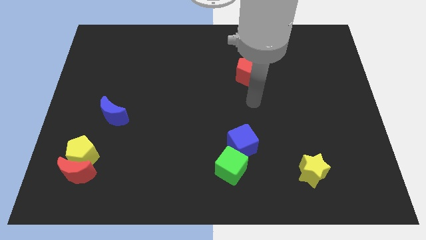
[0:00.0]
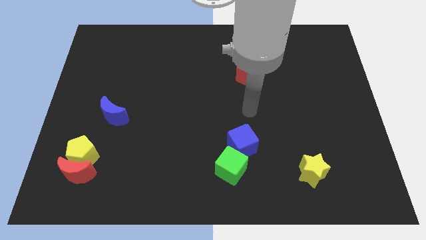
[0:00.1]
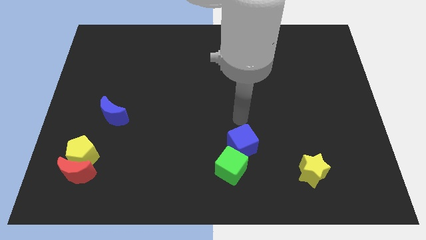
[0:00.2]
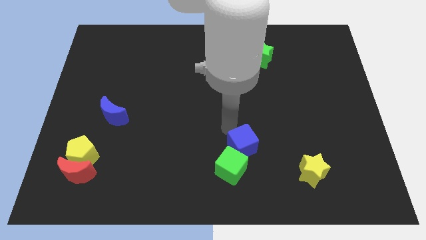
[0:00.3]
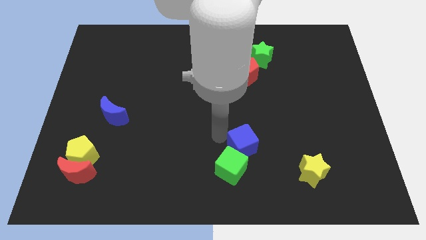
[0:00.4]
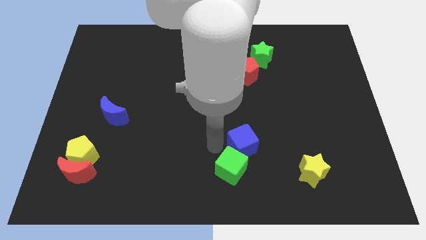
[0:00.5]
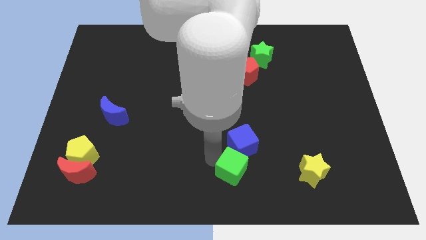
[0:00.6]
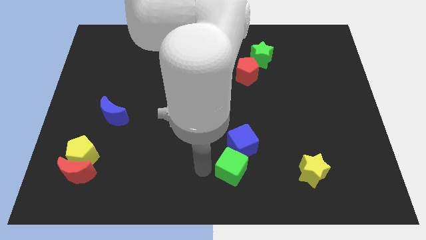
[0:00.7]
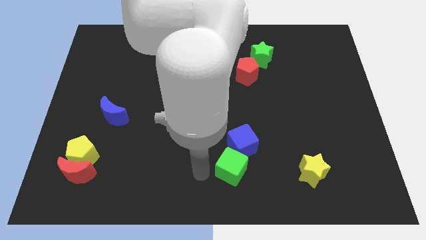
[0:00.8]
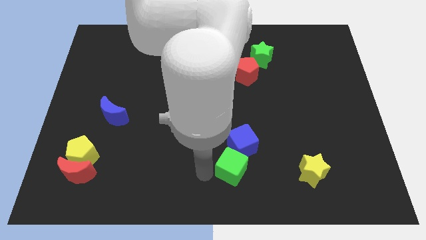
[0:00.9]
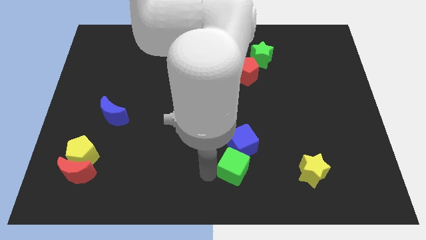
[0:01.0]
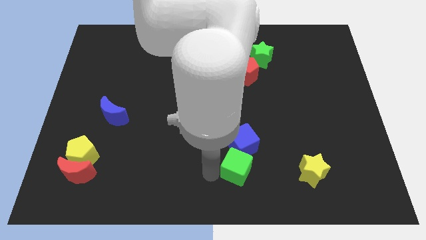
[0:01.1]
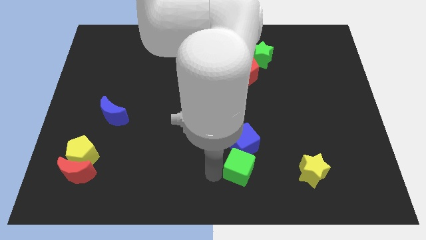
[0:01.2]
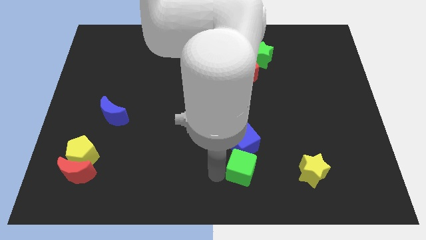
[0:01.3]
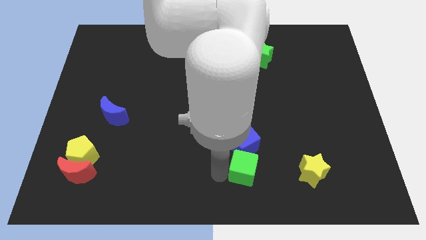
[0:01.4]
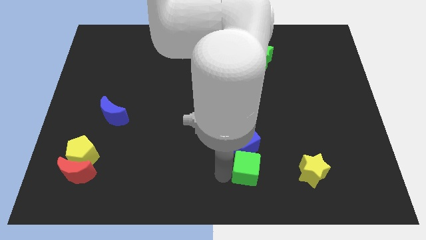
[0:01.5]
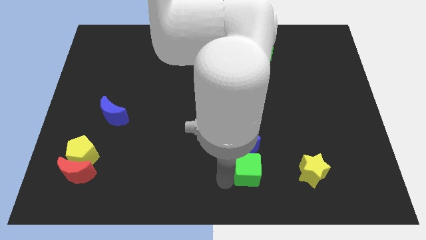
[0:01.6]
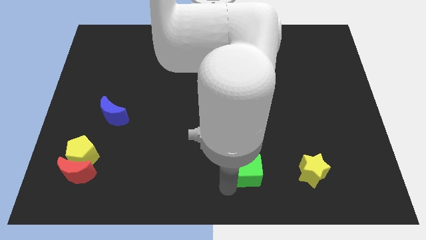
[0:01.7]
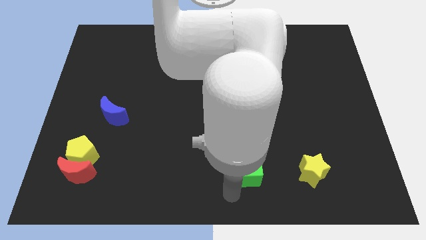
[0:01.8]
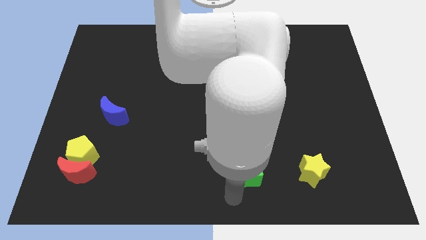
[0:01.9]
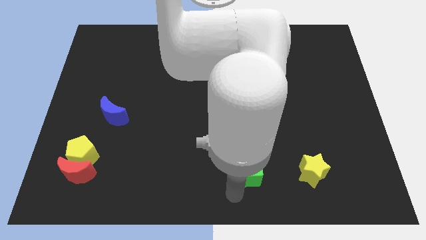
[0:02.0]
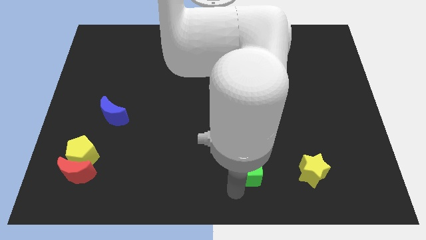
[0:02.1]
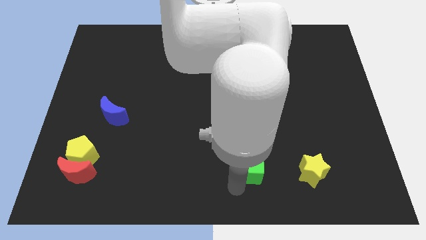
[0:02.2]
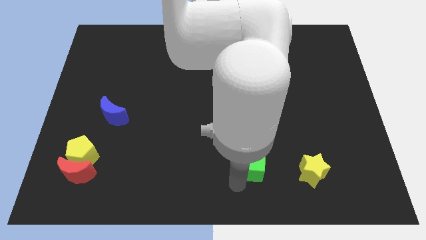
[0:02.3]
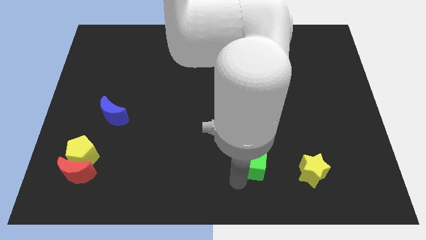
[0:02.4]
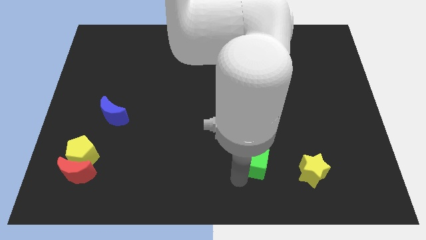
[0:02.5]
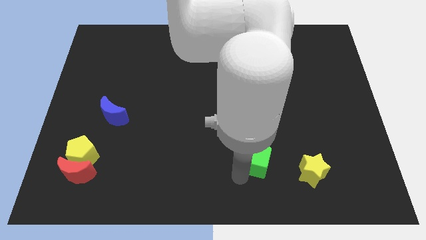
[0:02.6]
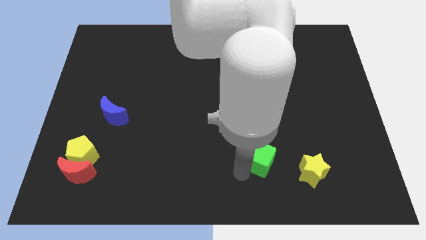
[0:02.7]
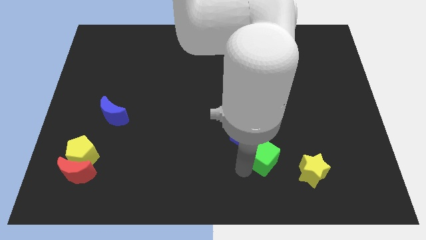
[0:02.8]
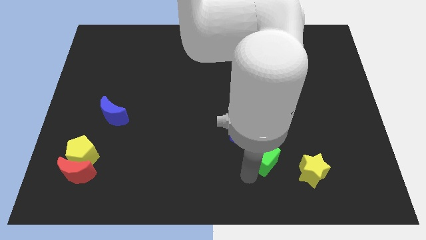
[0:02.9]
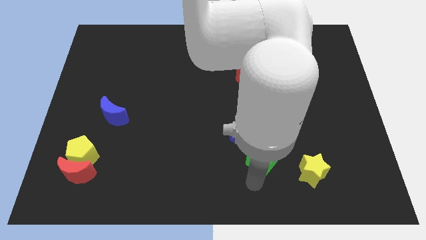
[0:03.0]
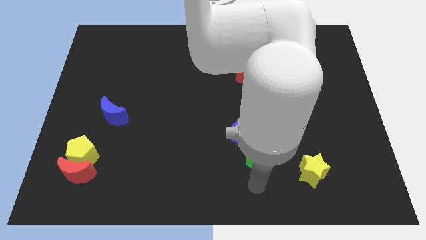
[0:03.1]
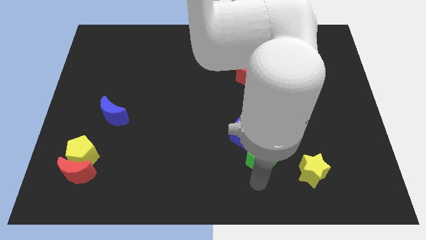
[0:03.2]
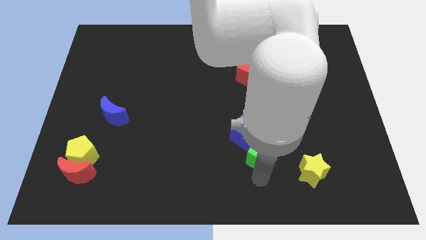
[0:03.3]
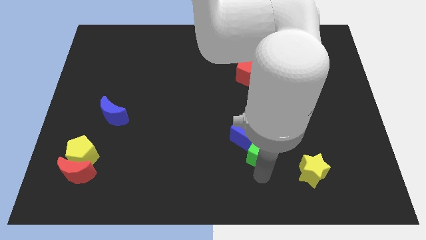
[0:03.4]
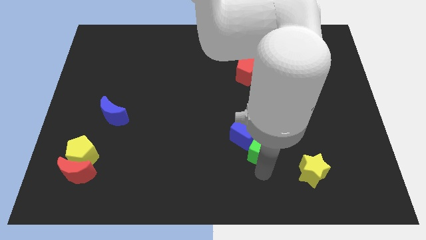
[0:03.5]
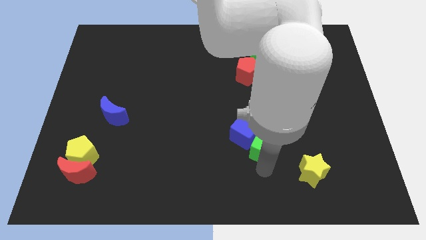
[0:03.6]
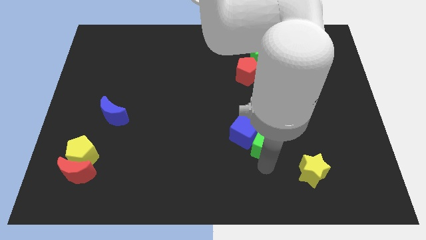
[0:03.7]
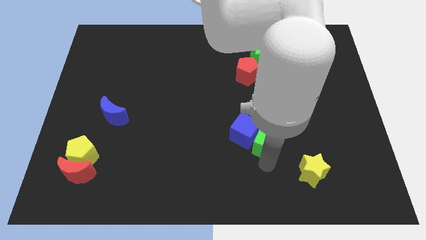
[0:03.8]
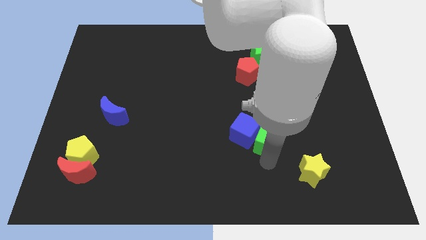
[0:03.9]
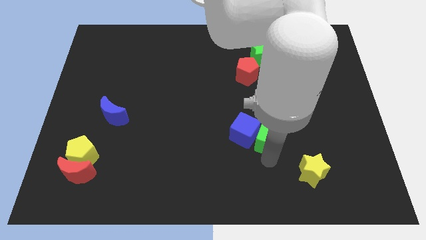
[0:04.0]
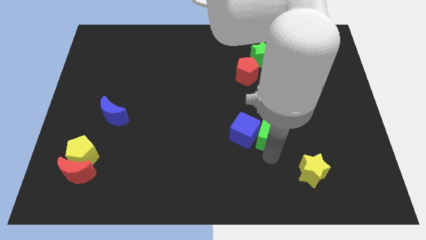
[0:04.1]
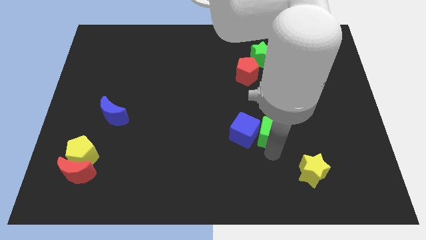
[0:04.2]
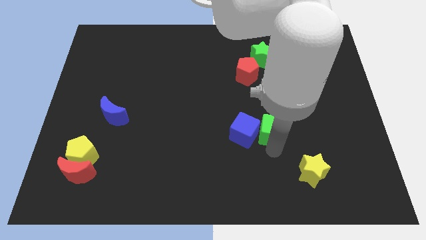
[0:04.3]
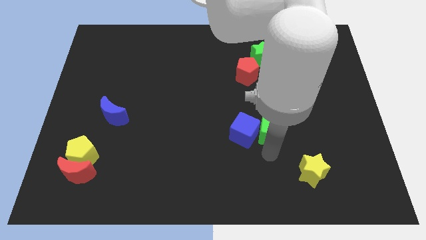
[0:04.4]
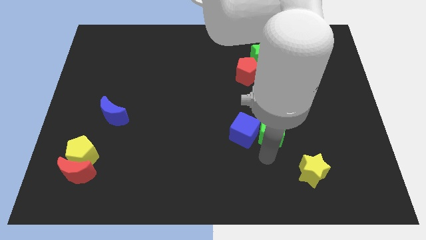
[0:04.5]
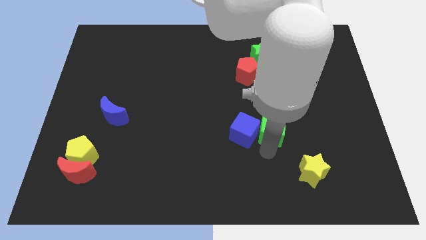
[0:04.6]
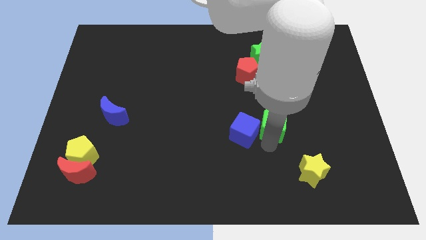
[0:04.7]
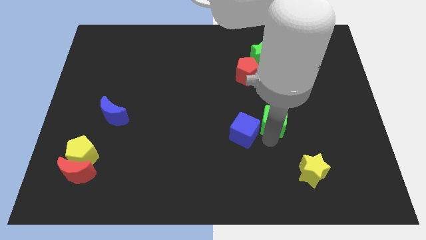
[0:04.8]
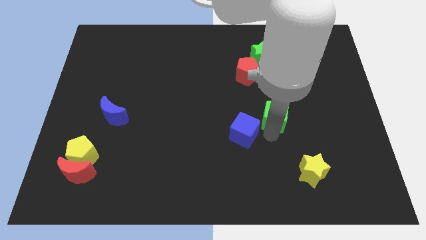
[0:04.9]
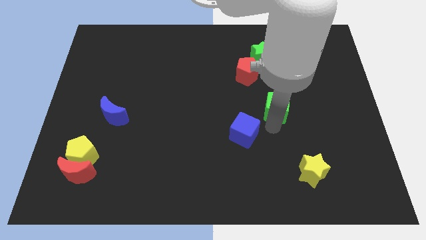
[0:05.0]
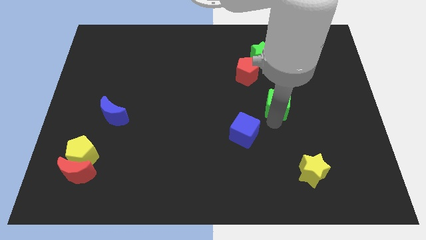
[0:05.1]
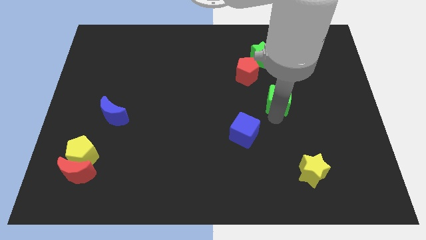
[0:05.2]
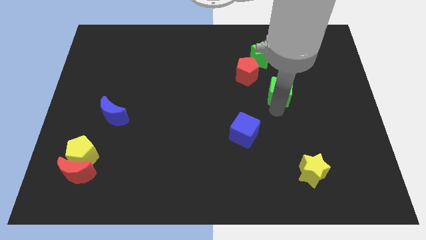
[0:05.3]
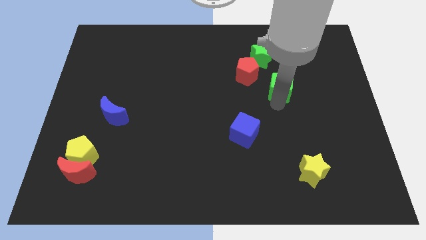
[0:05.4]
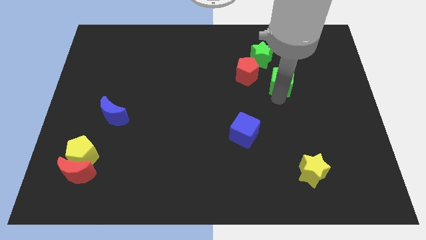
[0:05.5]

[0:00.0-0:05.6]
push the green cube to the bottom right side of the green star

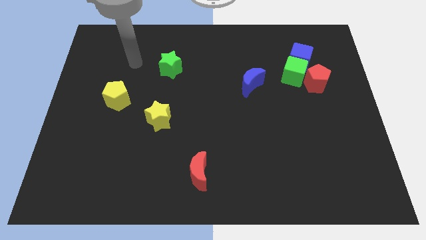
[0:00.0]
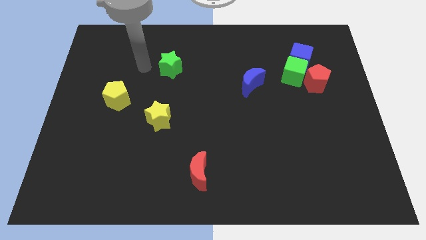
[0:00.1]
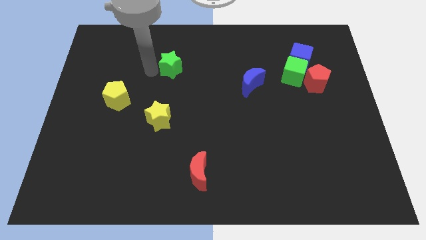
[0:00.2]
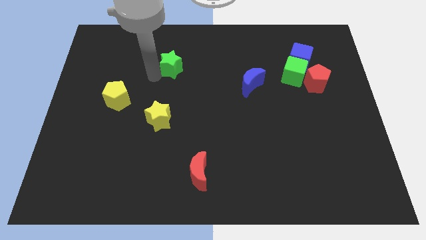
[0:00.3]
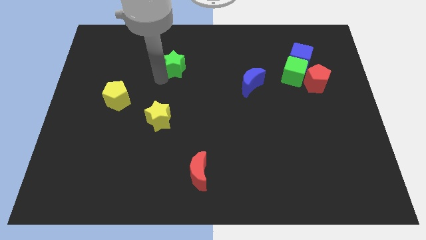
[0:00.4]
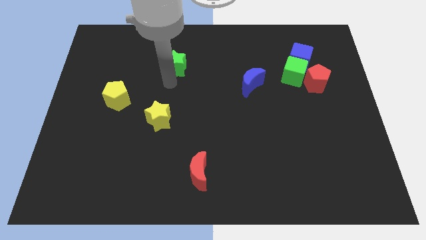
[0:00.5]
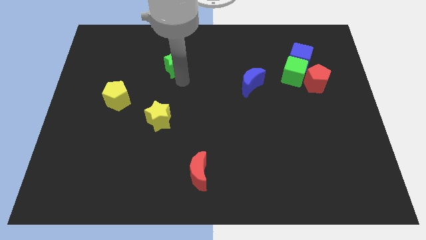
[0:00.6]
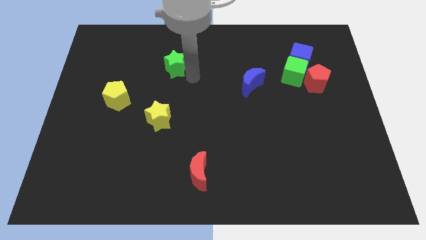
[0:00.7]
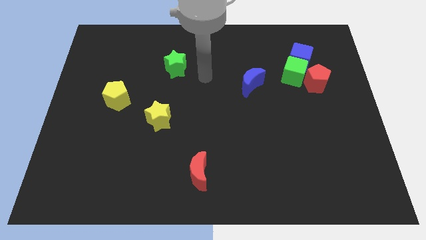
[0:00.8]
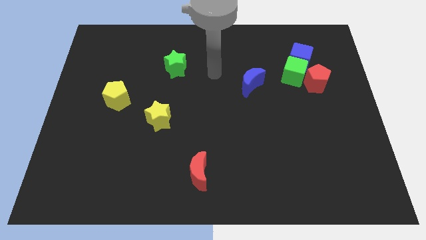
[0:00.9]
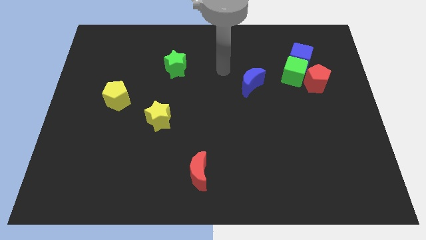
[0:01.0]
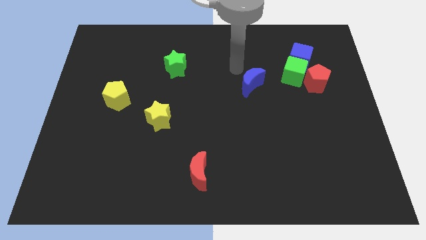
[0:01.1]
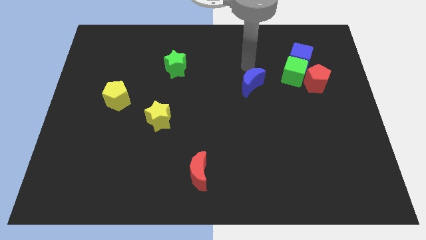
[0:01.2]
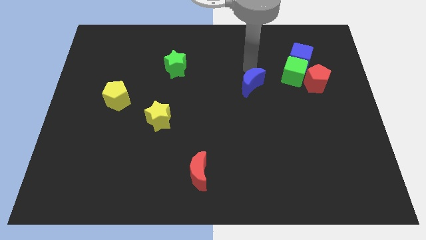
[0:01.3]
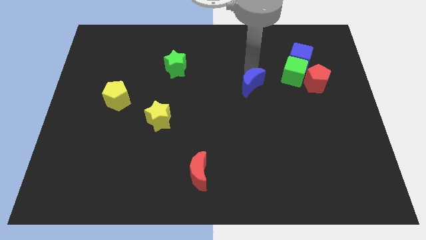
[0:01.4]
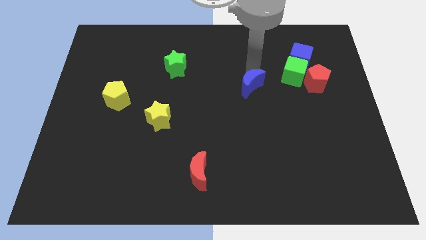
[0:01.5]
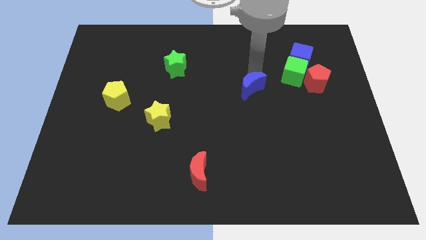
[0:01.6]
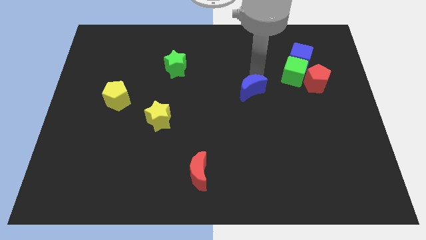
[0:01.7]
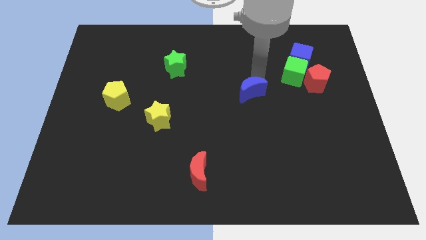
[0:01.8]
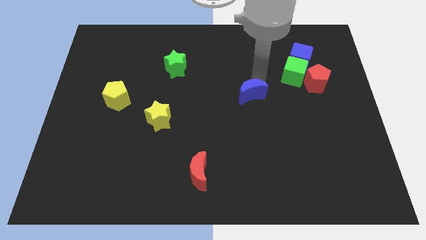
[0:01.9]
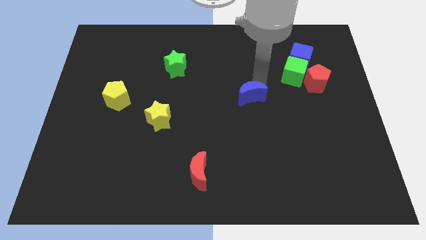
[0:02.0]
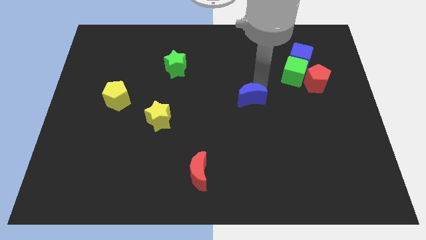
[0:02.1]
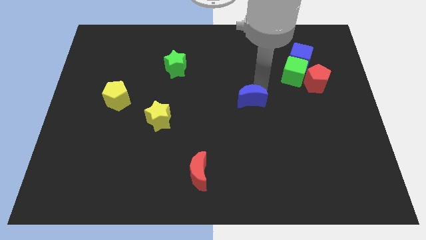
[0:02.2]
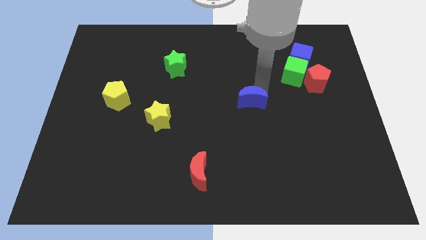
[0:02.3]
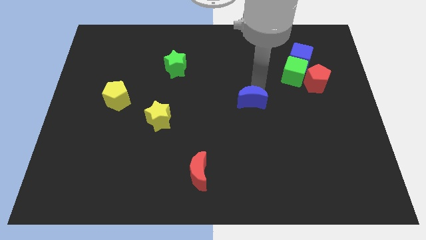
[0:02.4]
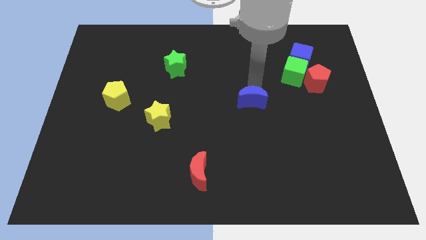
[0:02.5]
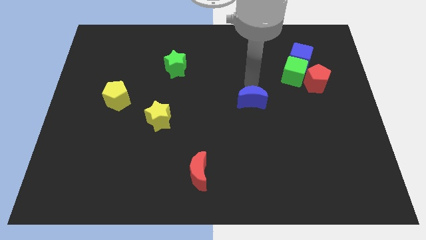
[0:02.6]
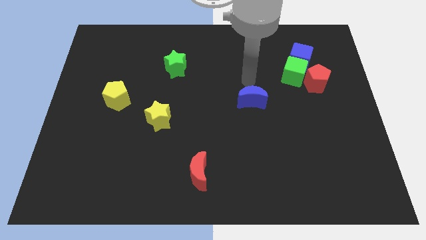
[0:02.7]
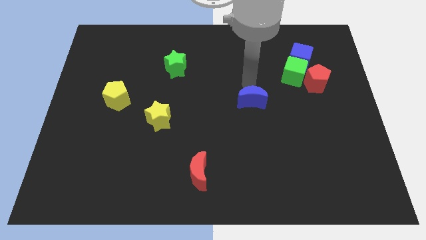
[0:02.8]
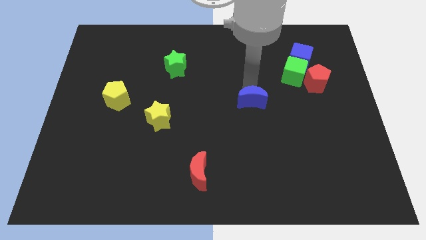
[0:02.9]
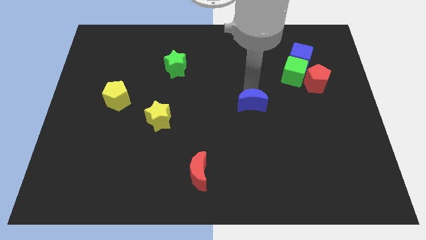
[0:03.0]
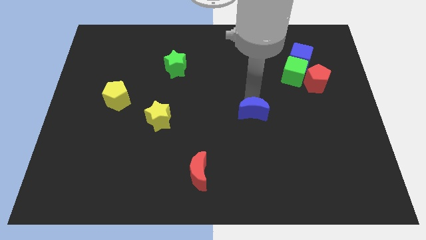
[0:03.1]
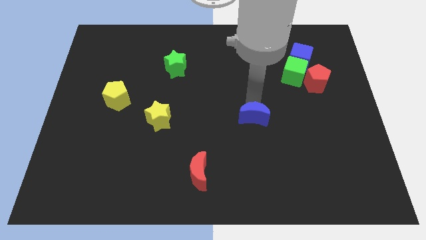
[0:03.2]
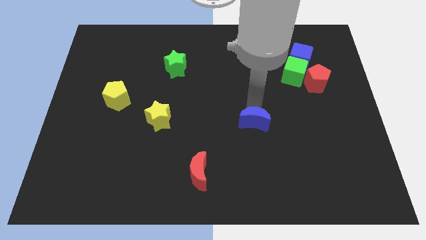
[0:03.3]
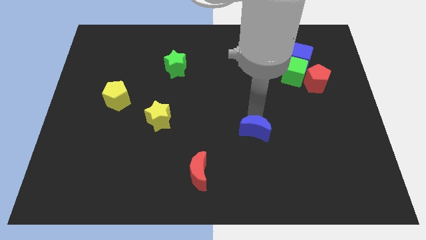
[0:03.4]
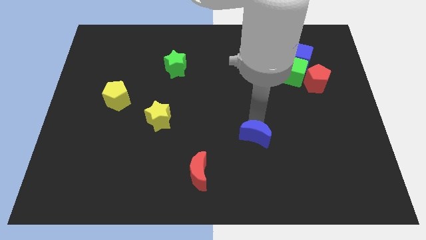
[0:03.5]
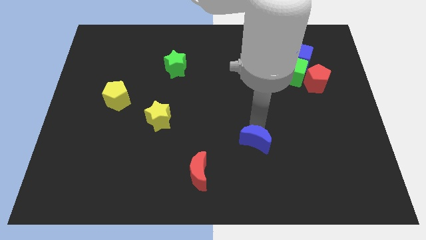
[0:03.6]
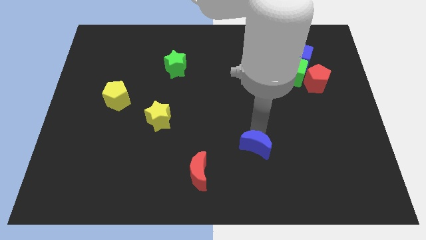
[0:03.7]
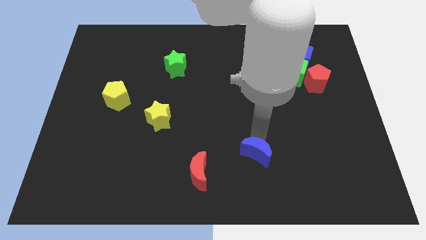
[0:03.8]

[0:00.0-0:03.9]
slide the blue moon to the right of the red moon
